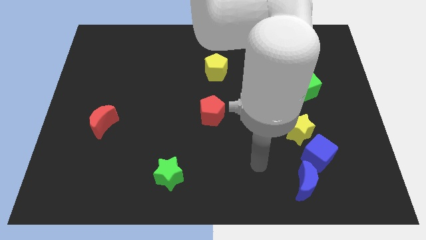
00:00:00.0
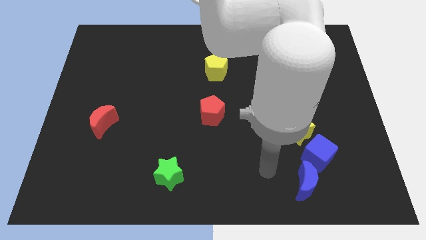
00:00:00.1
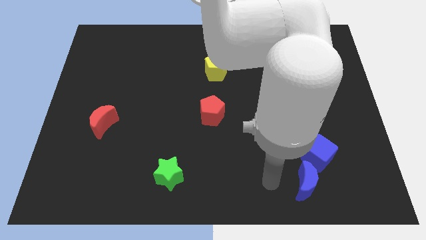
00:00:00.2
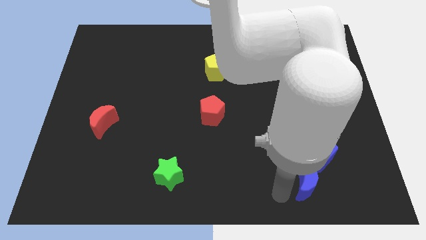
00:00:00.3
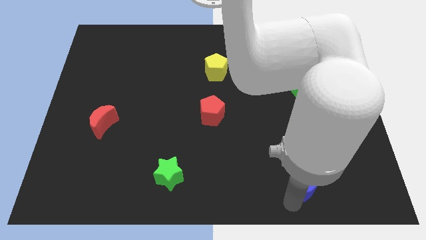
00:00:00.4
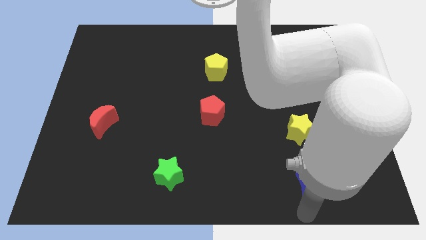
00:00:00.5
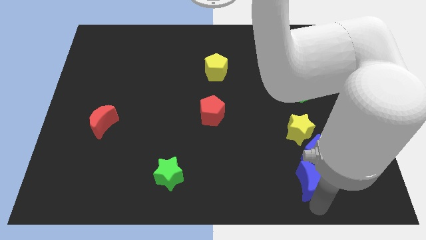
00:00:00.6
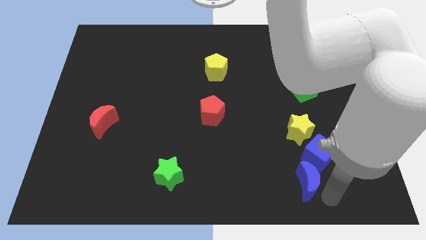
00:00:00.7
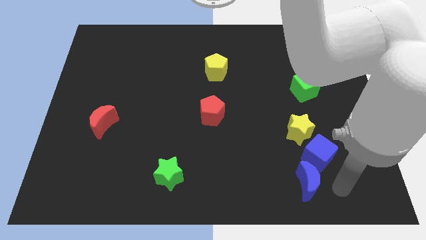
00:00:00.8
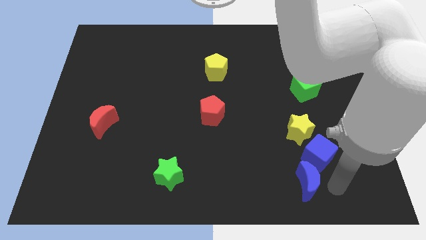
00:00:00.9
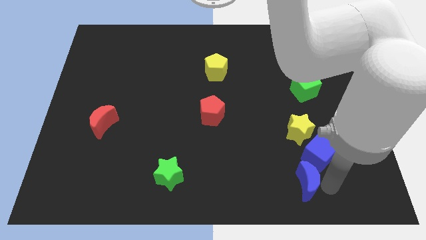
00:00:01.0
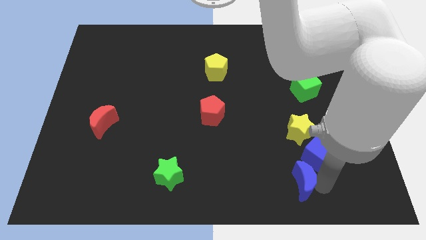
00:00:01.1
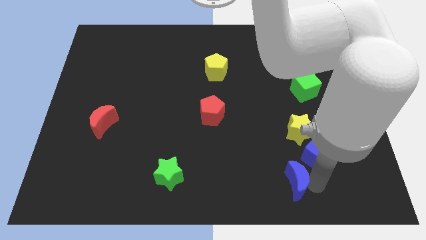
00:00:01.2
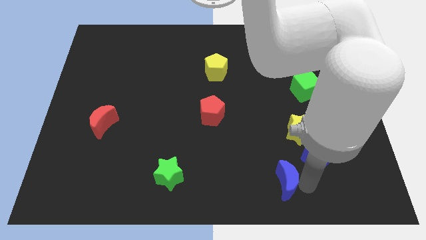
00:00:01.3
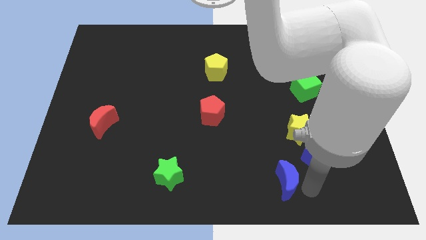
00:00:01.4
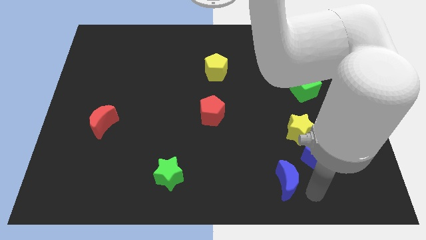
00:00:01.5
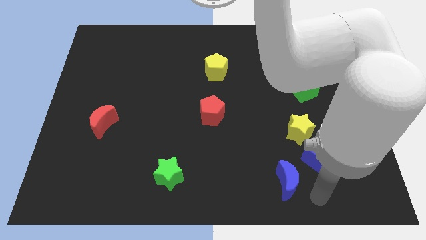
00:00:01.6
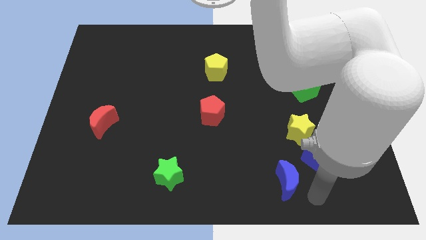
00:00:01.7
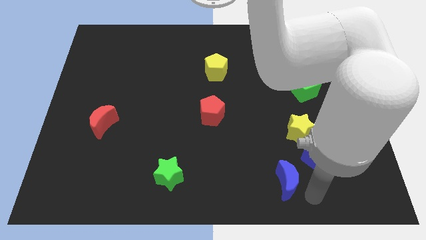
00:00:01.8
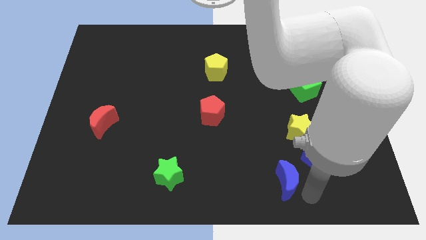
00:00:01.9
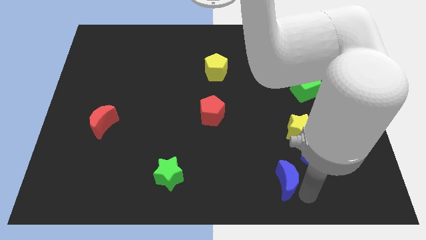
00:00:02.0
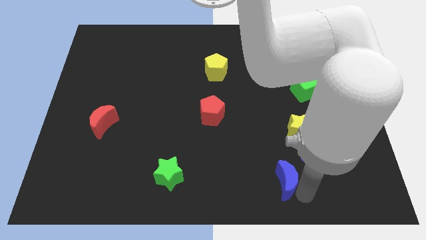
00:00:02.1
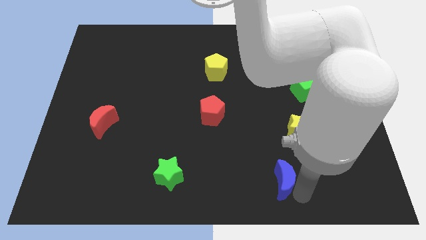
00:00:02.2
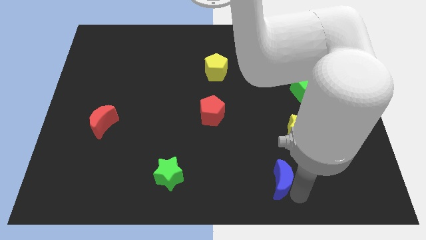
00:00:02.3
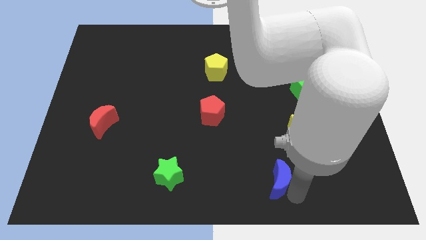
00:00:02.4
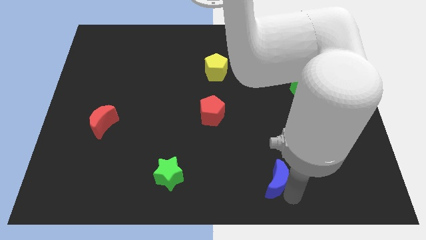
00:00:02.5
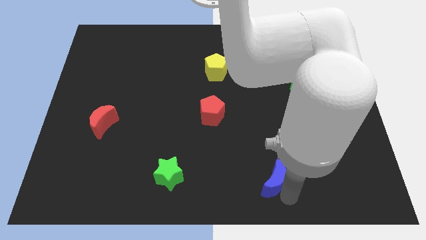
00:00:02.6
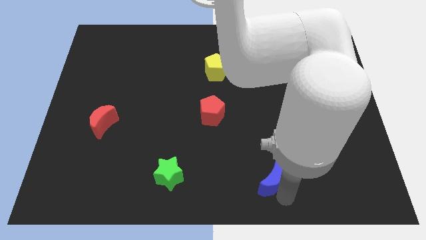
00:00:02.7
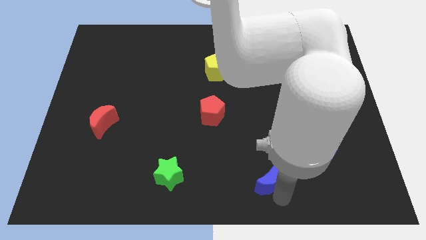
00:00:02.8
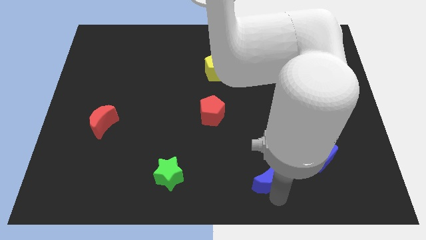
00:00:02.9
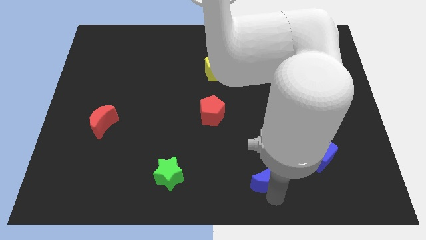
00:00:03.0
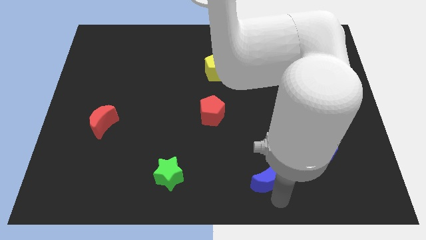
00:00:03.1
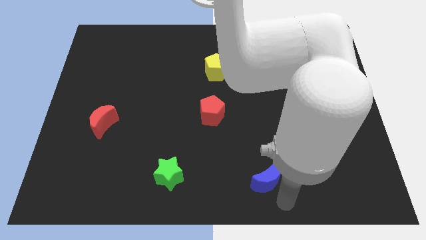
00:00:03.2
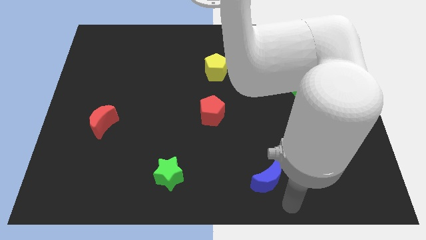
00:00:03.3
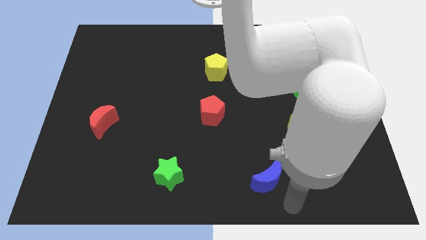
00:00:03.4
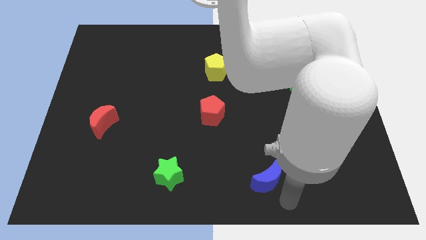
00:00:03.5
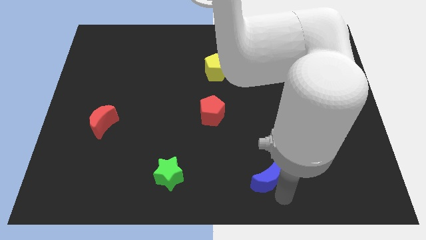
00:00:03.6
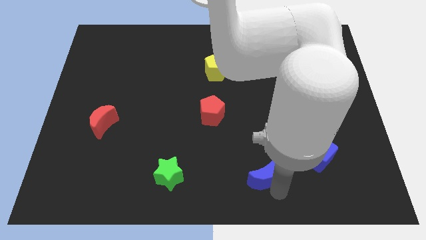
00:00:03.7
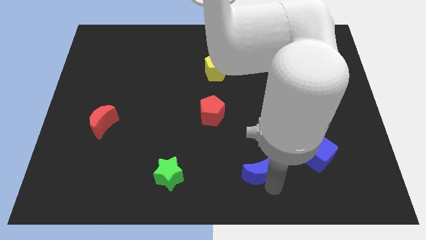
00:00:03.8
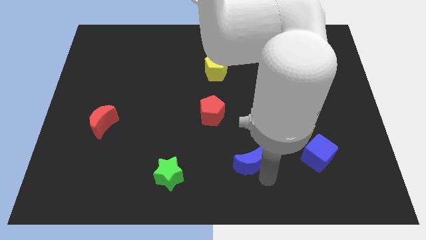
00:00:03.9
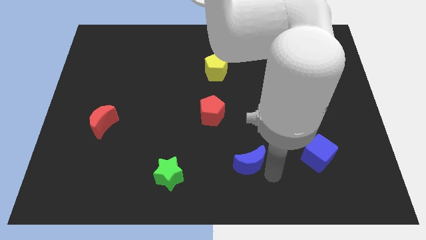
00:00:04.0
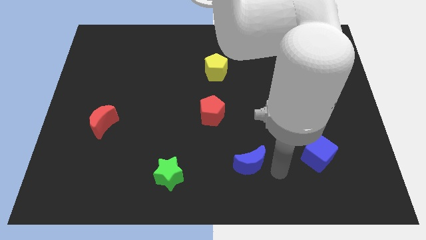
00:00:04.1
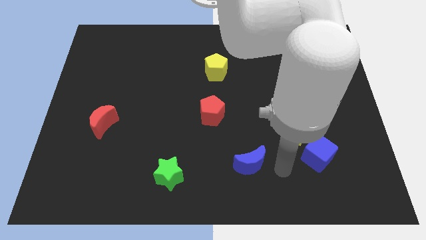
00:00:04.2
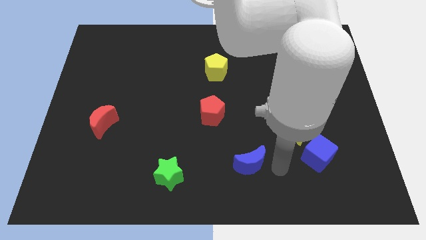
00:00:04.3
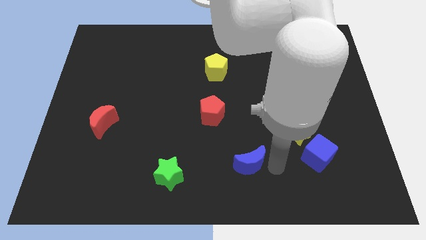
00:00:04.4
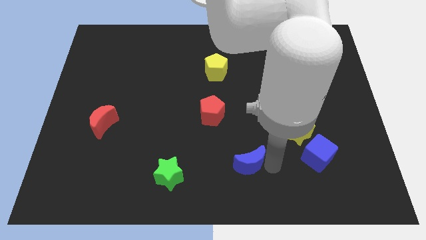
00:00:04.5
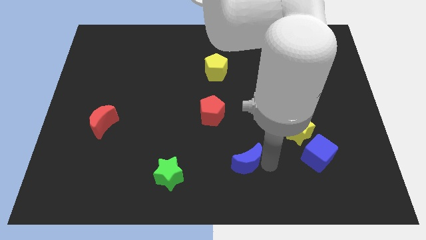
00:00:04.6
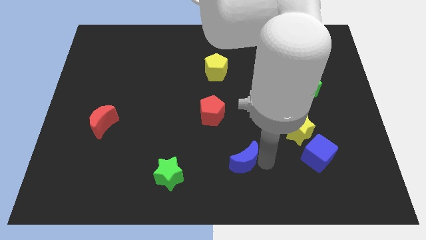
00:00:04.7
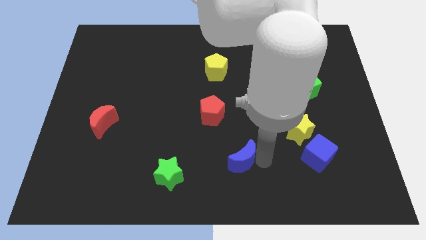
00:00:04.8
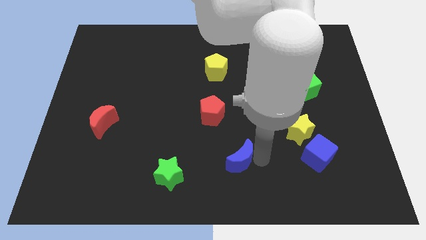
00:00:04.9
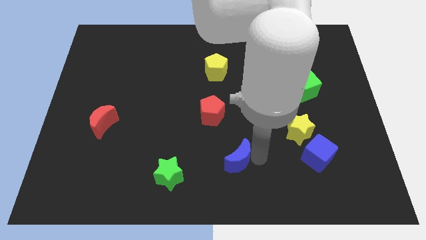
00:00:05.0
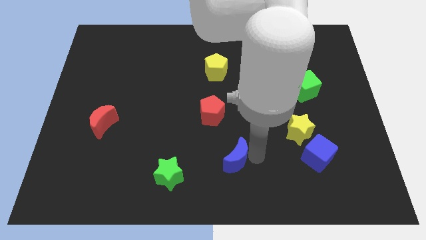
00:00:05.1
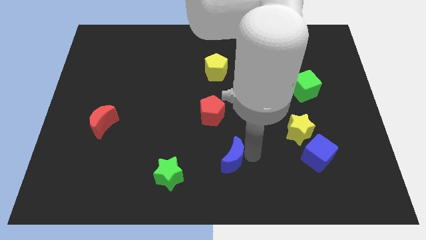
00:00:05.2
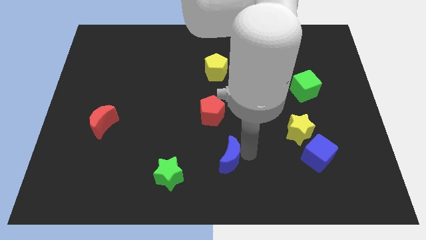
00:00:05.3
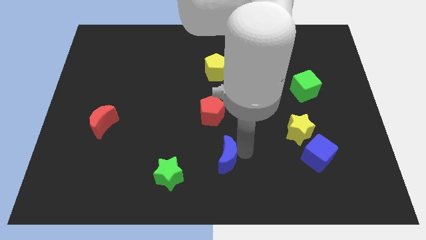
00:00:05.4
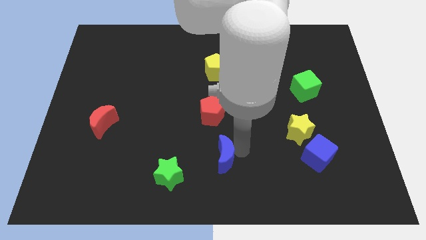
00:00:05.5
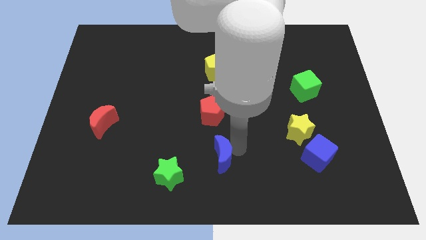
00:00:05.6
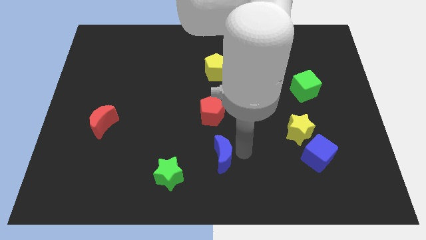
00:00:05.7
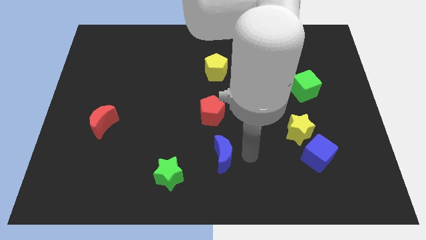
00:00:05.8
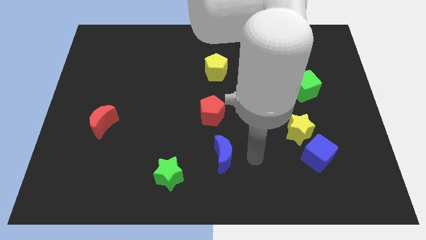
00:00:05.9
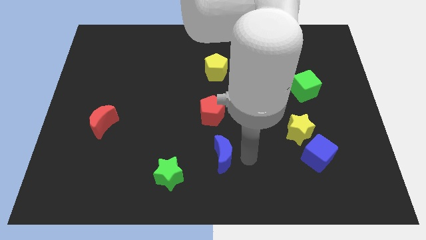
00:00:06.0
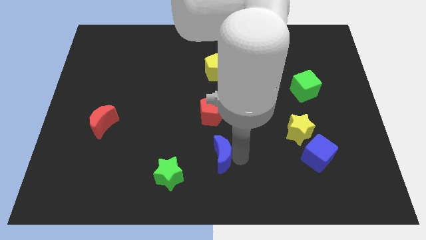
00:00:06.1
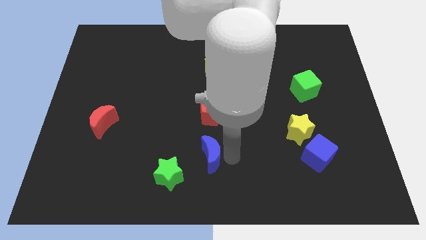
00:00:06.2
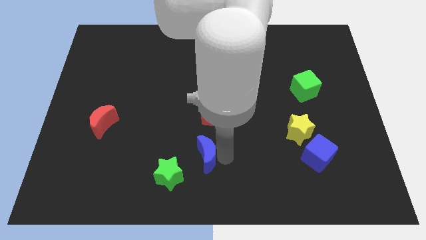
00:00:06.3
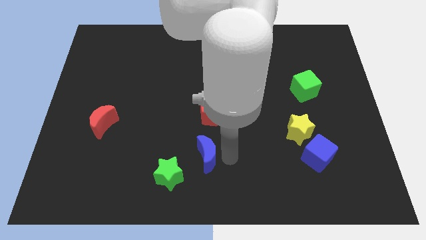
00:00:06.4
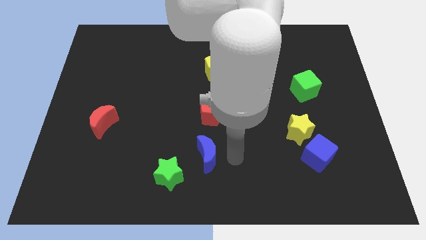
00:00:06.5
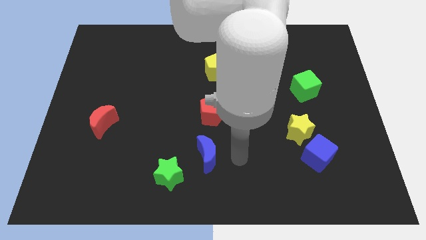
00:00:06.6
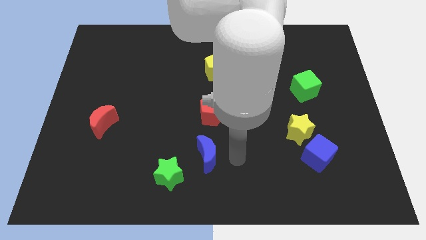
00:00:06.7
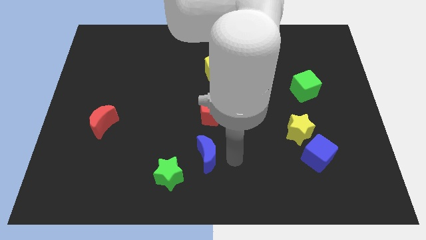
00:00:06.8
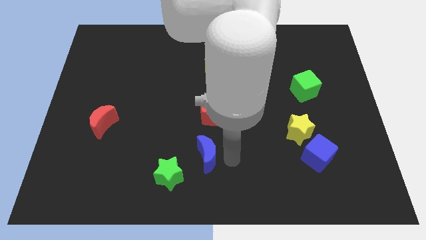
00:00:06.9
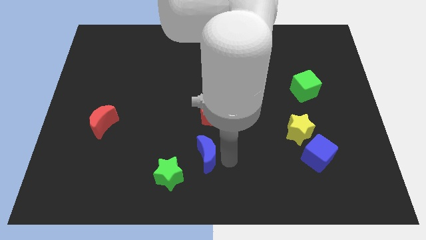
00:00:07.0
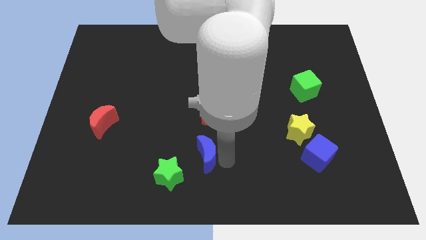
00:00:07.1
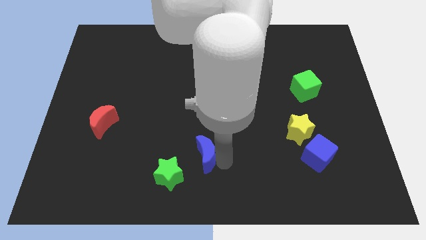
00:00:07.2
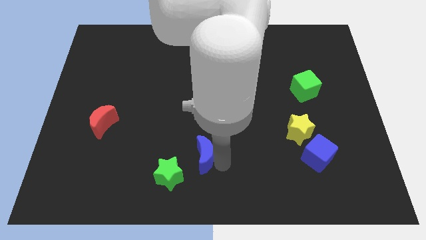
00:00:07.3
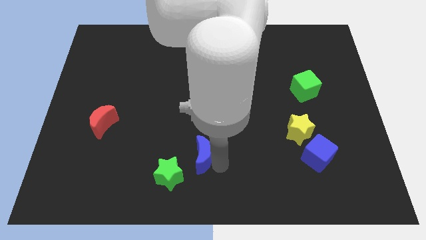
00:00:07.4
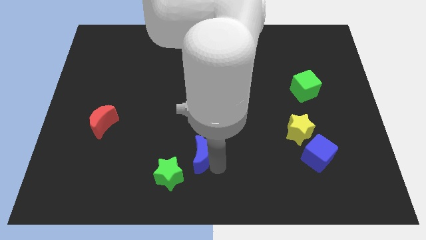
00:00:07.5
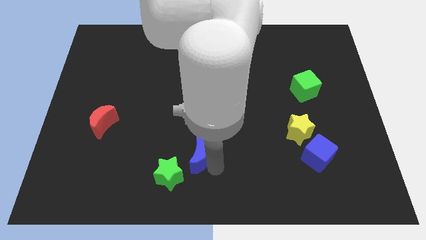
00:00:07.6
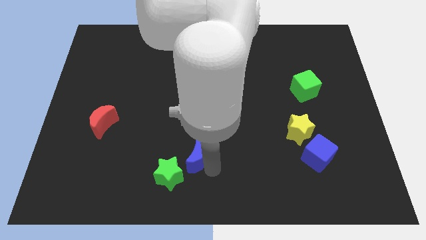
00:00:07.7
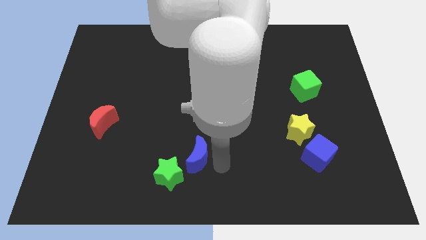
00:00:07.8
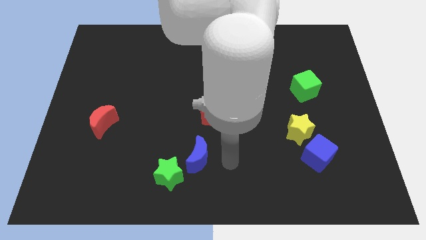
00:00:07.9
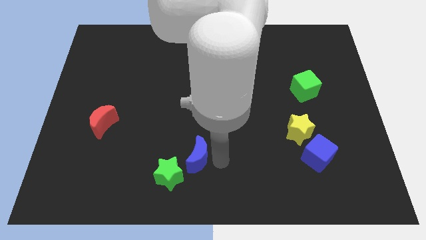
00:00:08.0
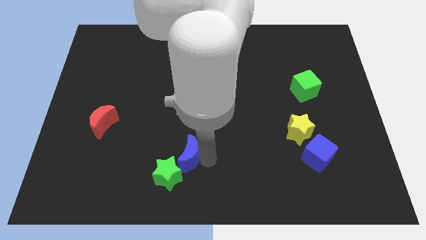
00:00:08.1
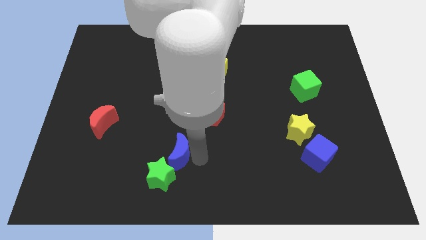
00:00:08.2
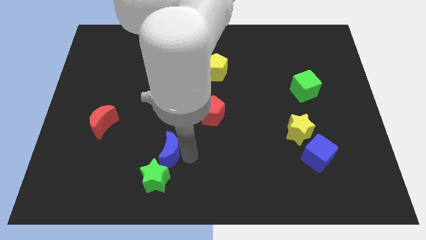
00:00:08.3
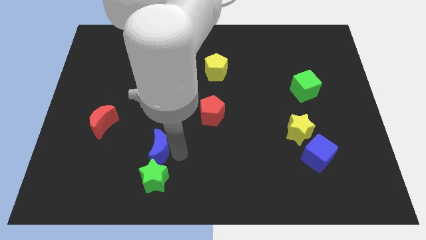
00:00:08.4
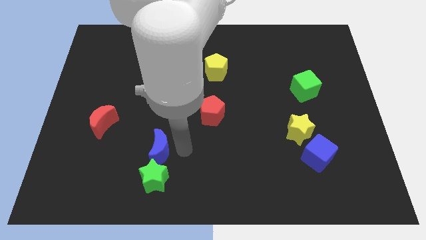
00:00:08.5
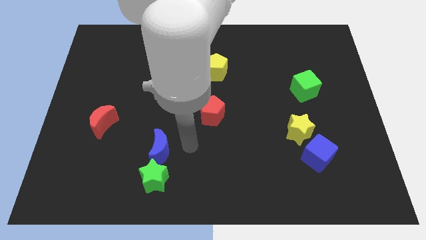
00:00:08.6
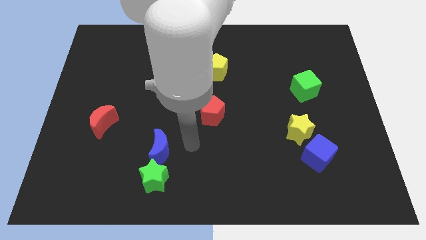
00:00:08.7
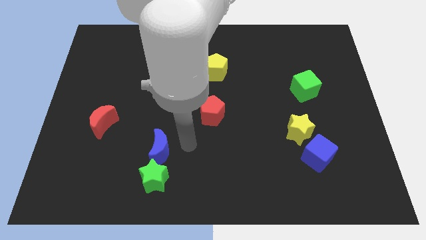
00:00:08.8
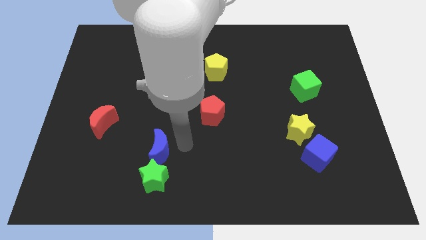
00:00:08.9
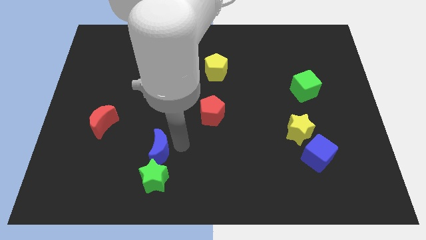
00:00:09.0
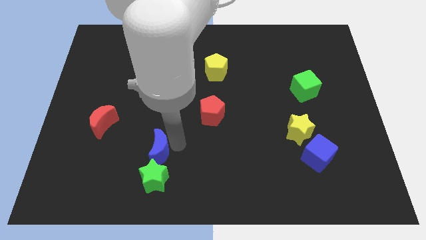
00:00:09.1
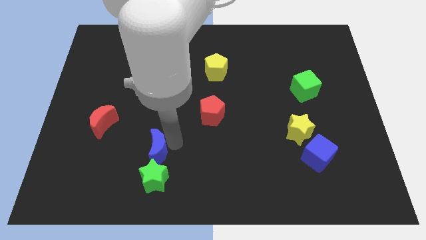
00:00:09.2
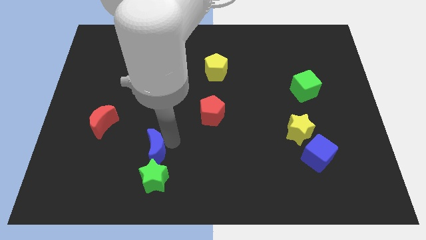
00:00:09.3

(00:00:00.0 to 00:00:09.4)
push the blue moon diagonally up and to the left of the green star
